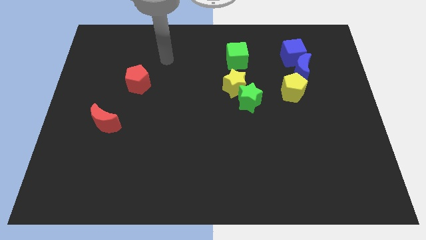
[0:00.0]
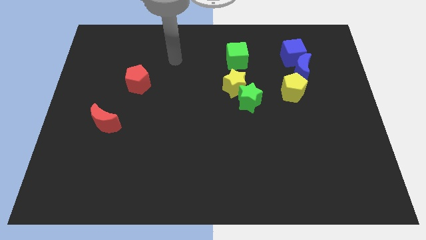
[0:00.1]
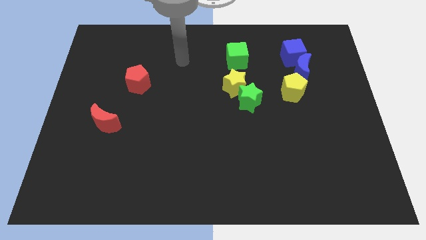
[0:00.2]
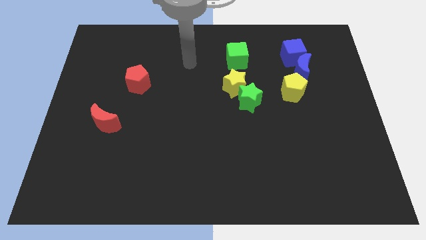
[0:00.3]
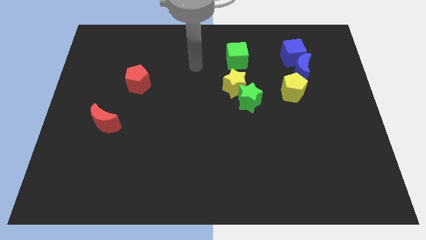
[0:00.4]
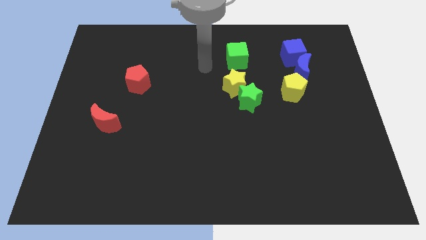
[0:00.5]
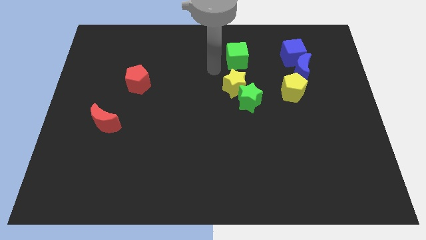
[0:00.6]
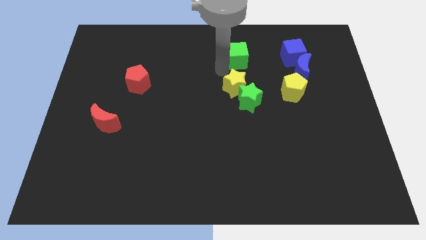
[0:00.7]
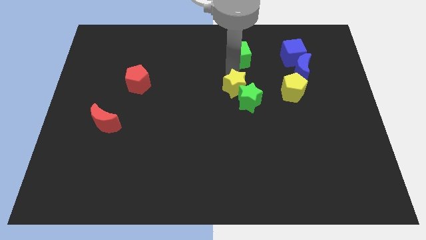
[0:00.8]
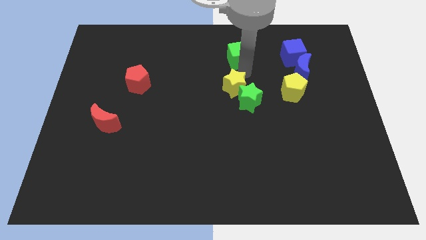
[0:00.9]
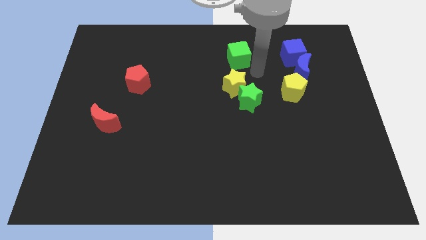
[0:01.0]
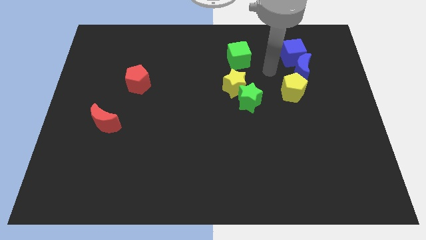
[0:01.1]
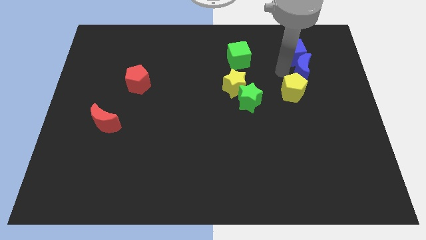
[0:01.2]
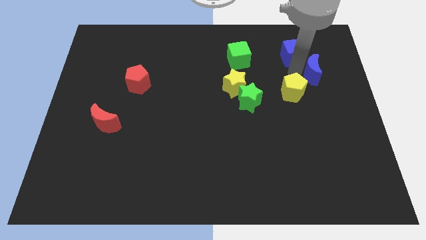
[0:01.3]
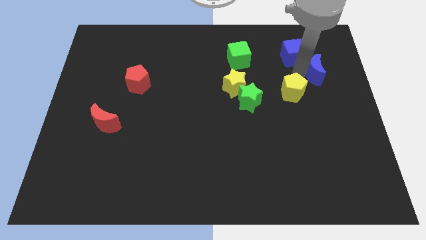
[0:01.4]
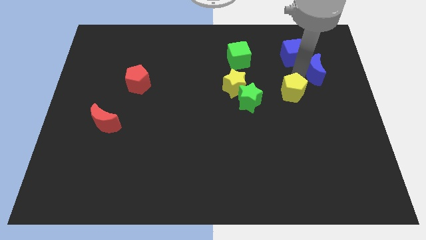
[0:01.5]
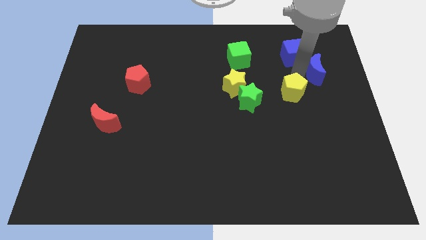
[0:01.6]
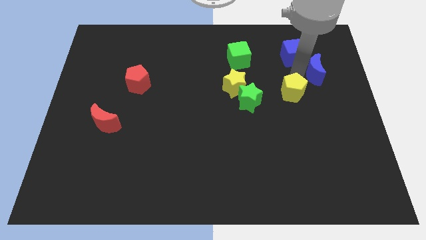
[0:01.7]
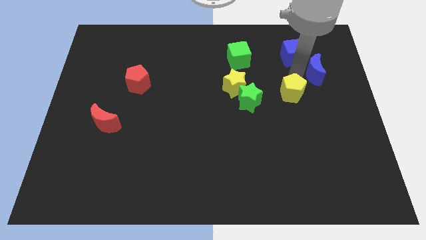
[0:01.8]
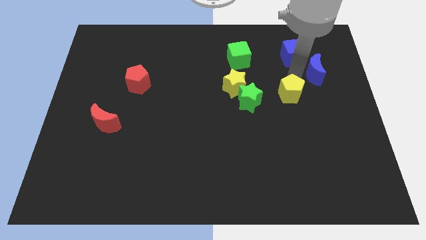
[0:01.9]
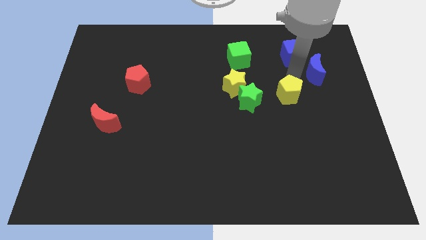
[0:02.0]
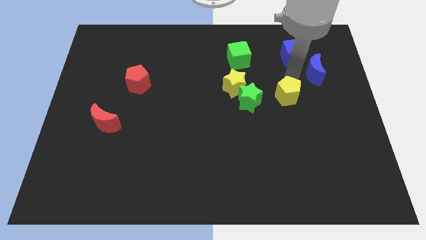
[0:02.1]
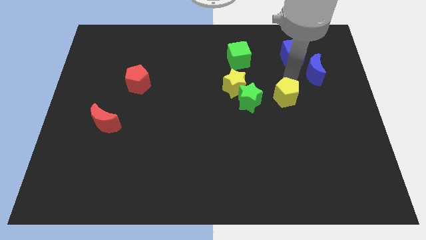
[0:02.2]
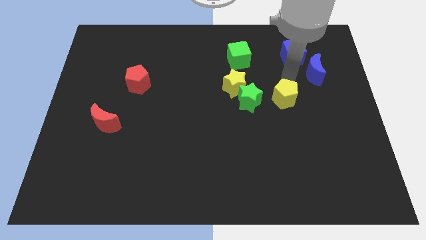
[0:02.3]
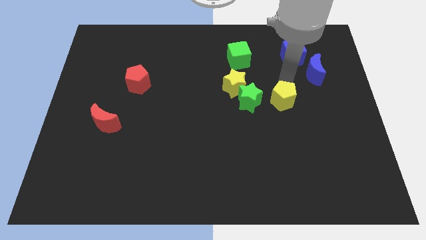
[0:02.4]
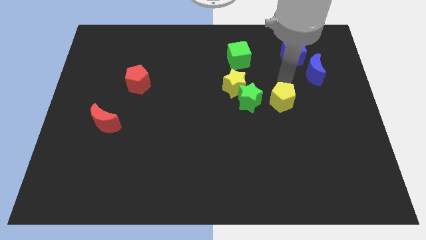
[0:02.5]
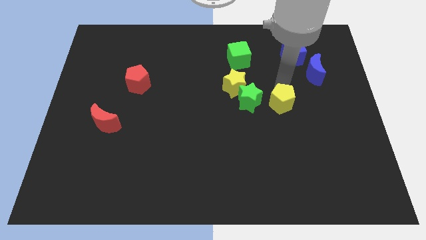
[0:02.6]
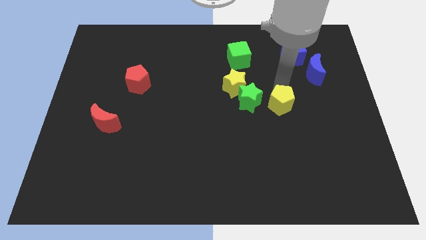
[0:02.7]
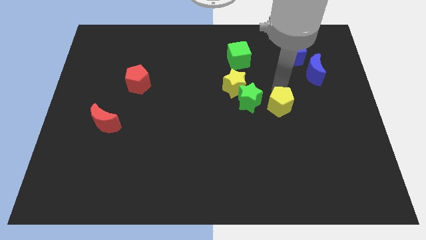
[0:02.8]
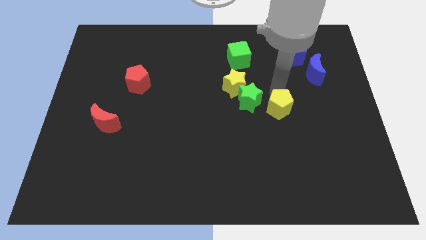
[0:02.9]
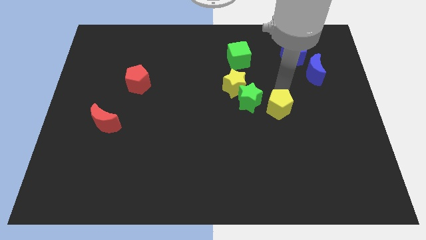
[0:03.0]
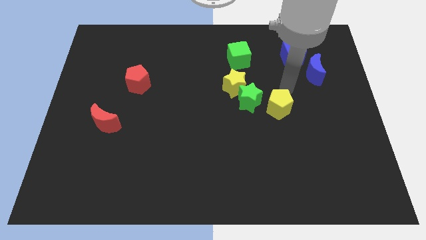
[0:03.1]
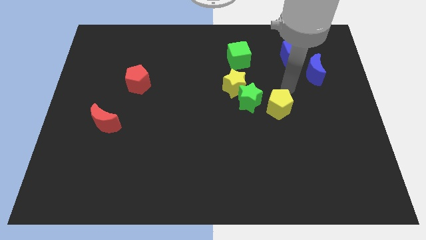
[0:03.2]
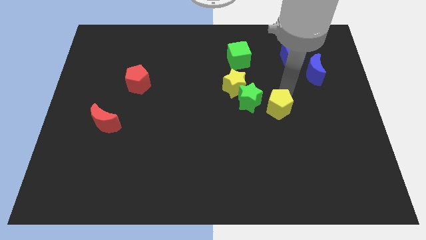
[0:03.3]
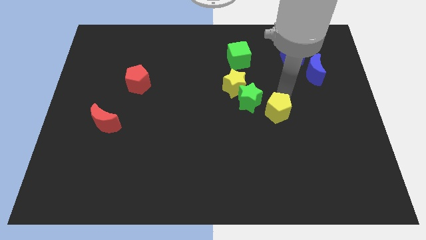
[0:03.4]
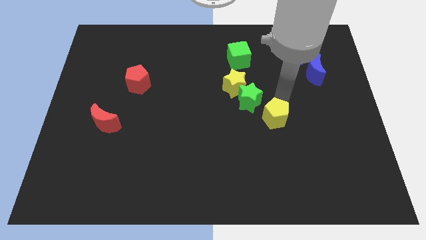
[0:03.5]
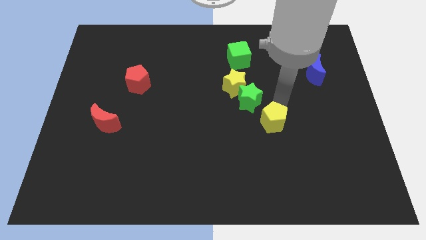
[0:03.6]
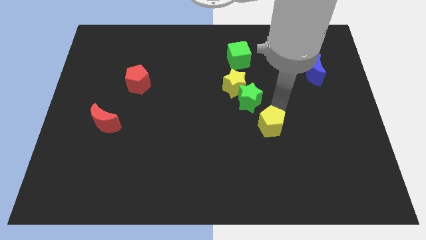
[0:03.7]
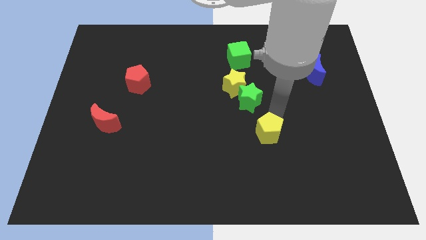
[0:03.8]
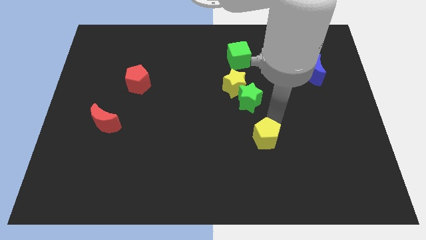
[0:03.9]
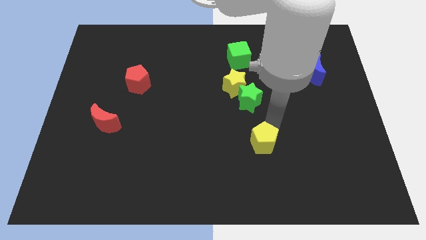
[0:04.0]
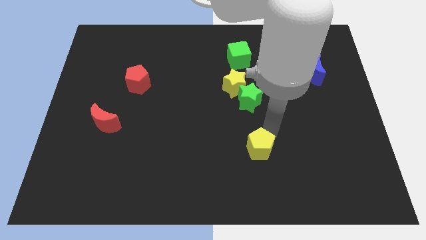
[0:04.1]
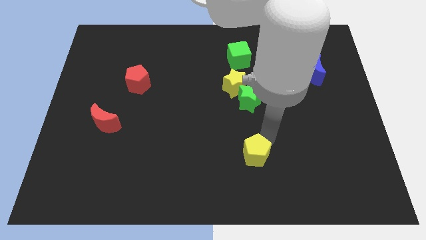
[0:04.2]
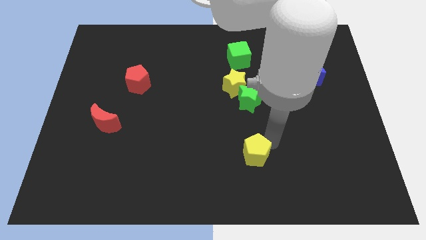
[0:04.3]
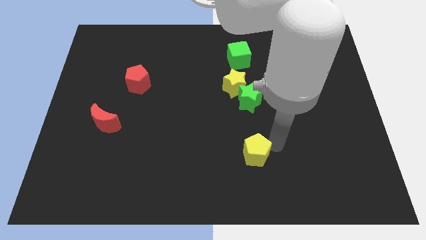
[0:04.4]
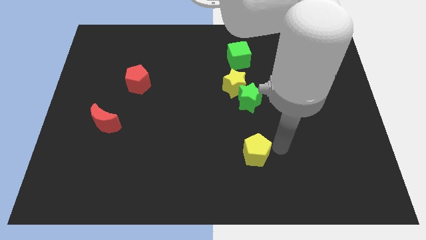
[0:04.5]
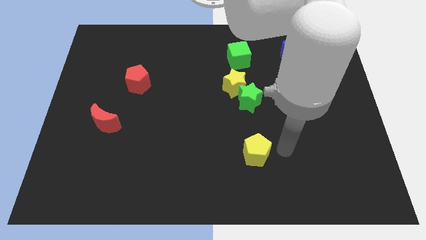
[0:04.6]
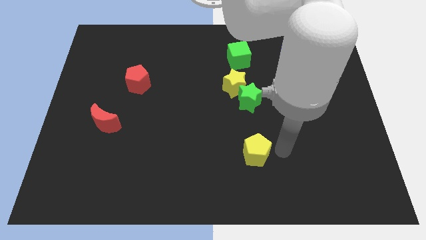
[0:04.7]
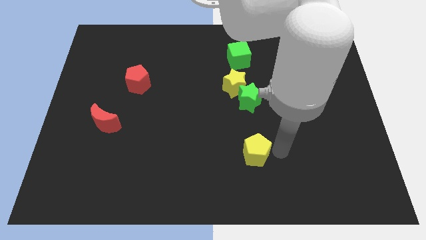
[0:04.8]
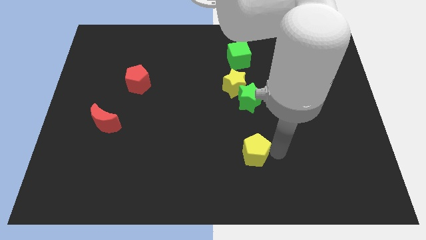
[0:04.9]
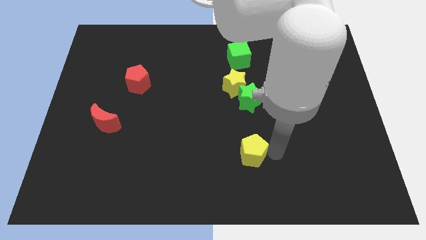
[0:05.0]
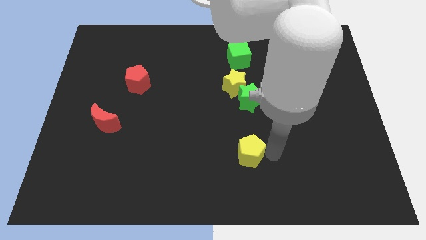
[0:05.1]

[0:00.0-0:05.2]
push the yellow pentagon down and left diagonally

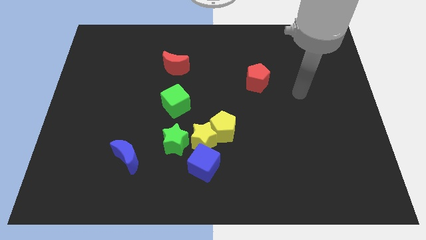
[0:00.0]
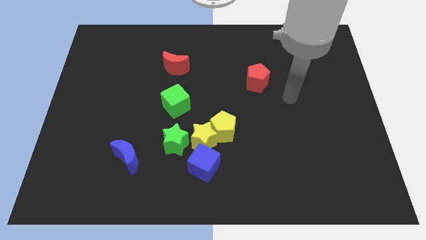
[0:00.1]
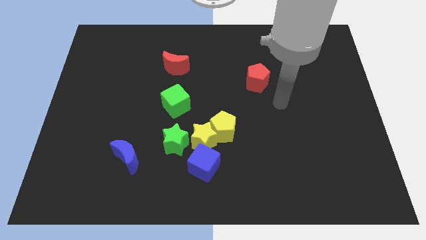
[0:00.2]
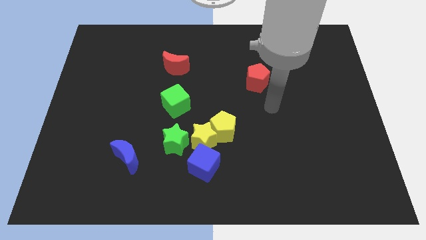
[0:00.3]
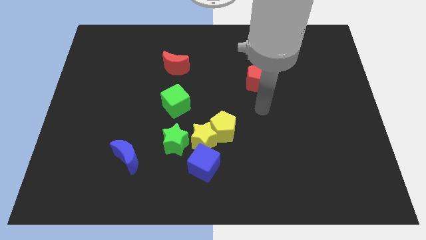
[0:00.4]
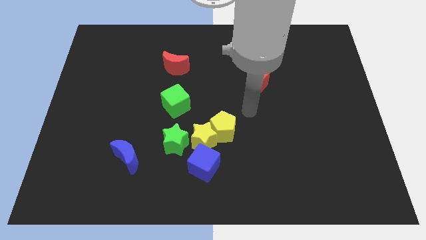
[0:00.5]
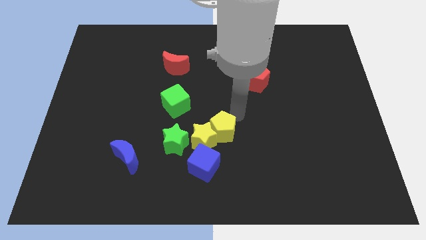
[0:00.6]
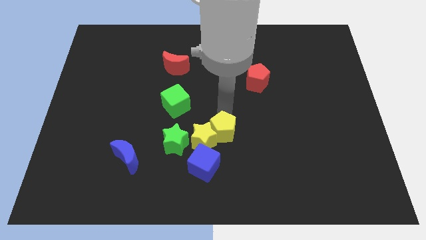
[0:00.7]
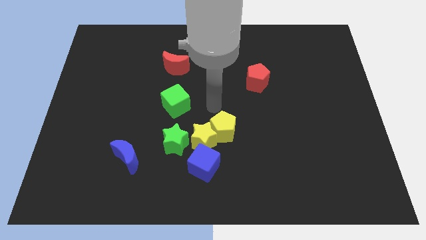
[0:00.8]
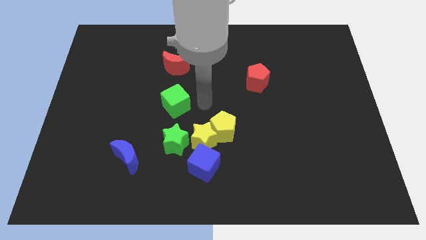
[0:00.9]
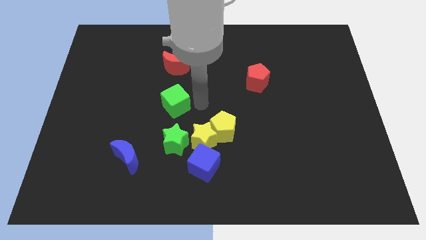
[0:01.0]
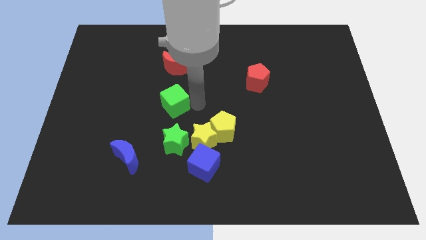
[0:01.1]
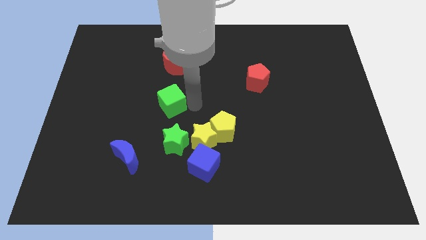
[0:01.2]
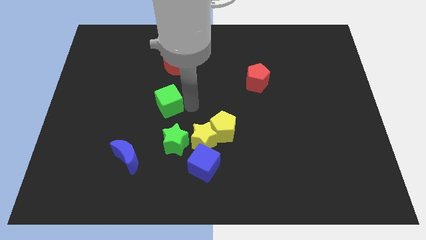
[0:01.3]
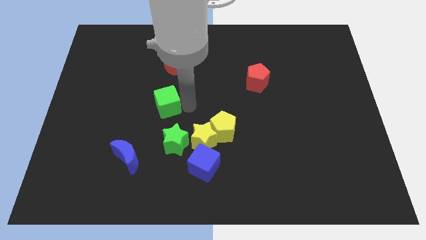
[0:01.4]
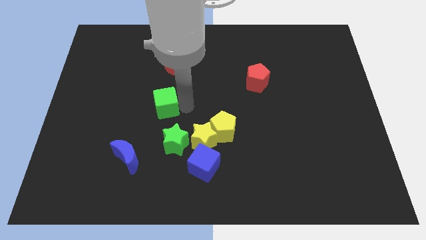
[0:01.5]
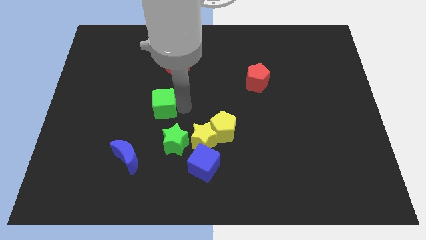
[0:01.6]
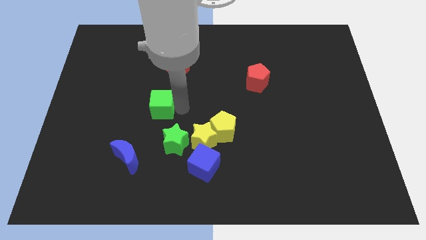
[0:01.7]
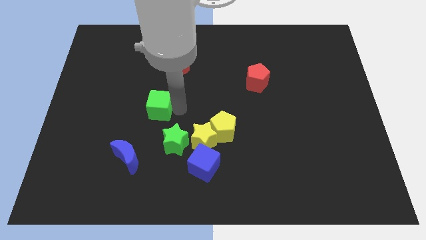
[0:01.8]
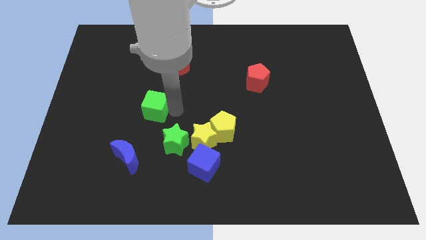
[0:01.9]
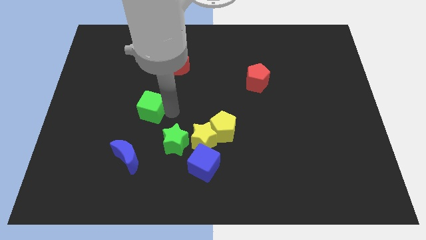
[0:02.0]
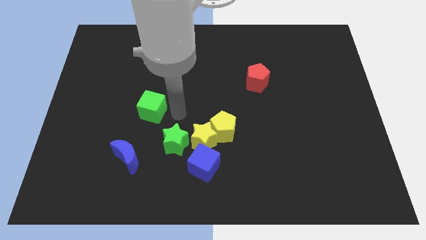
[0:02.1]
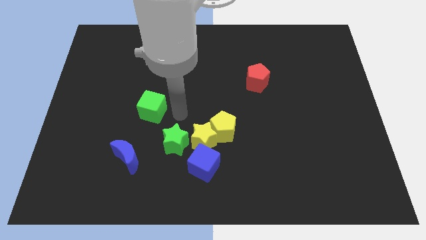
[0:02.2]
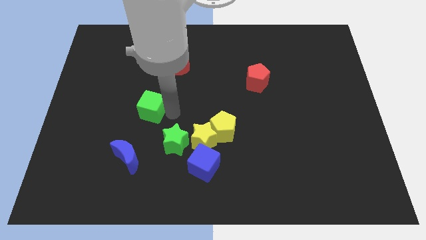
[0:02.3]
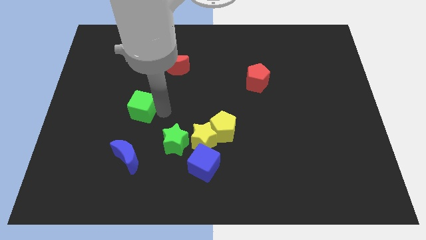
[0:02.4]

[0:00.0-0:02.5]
move the green cube a little bit to the left

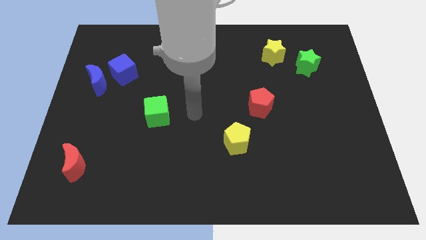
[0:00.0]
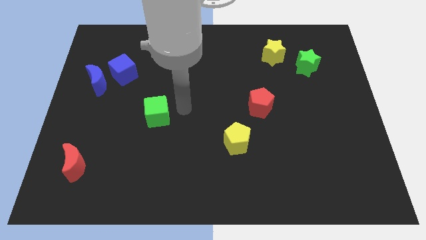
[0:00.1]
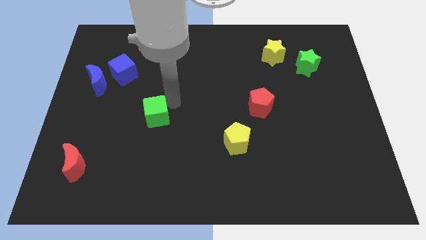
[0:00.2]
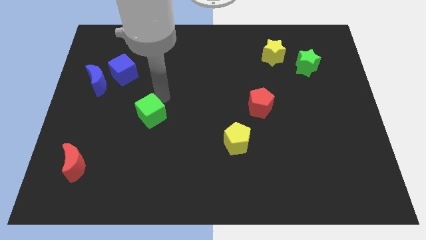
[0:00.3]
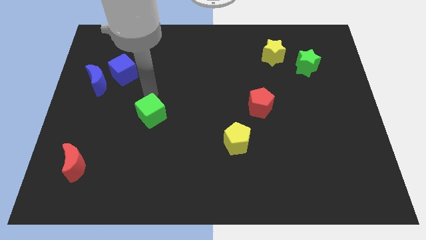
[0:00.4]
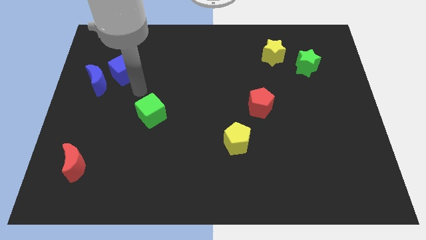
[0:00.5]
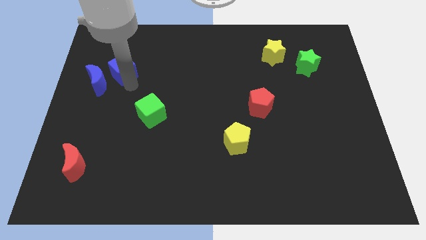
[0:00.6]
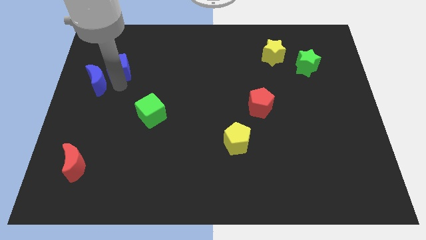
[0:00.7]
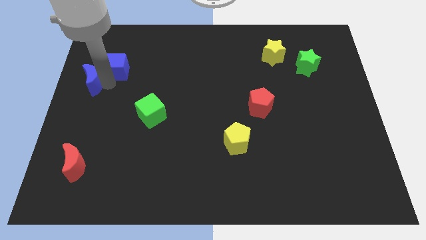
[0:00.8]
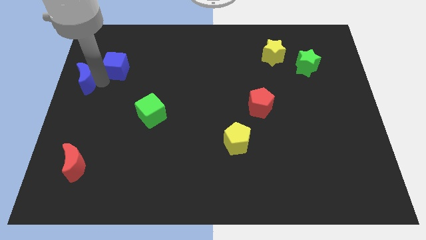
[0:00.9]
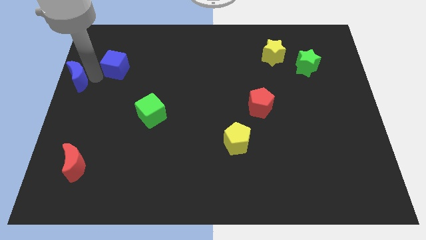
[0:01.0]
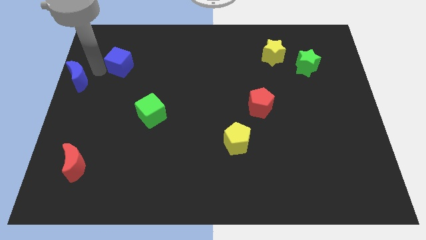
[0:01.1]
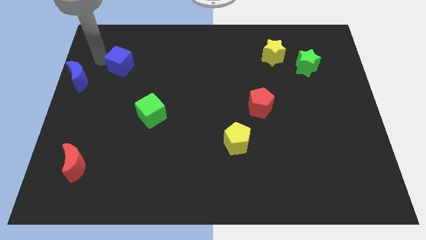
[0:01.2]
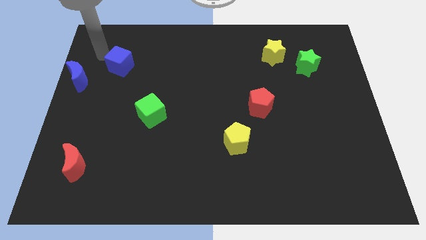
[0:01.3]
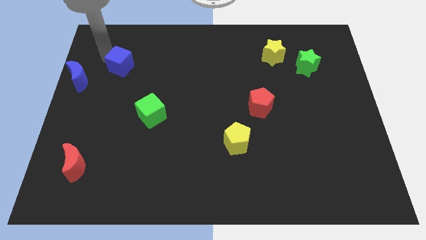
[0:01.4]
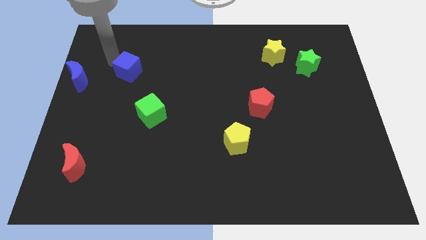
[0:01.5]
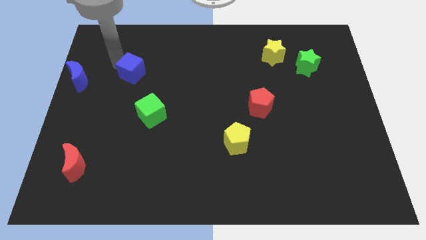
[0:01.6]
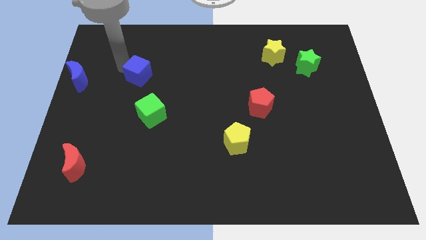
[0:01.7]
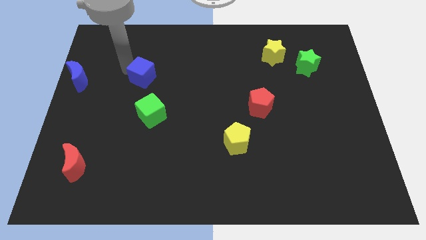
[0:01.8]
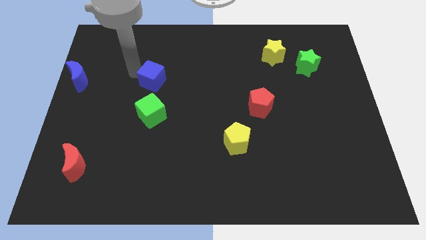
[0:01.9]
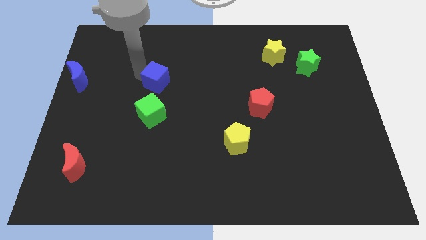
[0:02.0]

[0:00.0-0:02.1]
slide the blue cube downwards and to the right diagonally a bit
